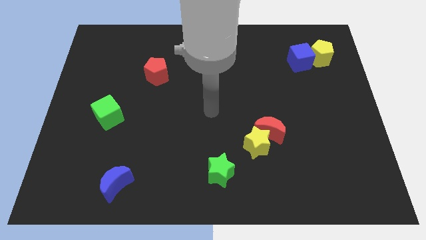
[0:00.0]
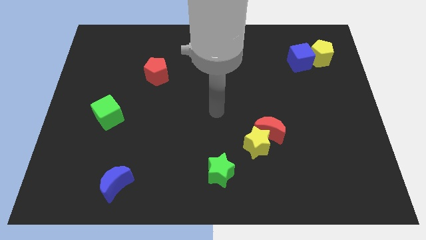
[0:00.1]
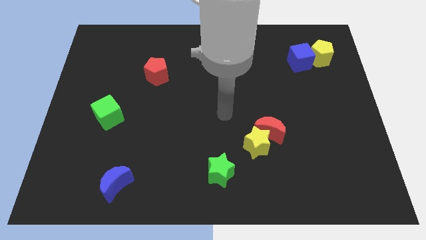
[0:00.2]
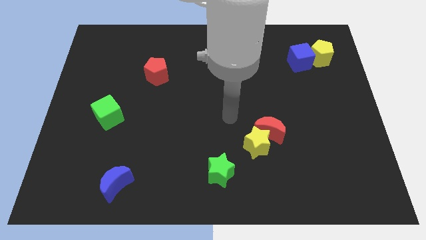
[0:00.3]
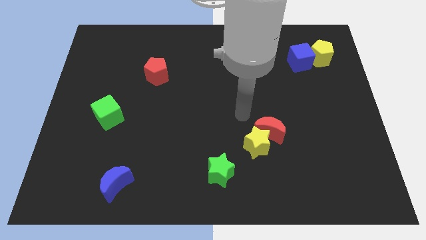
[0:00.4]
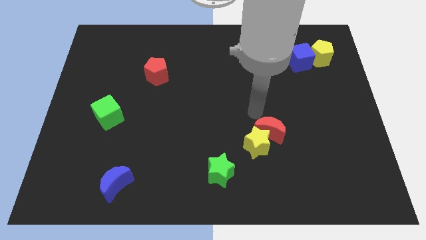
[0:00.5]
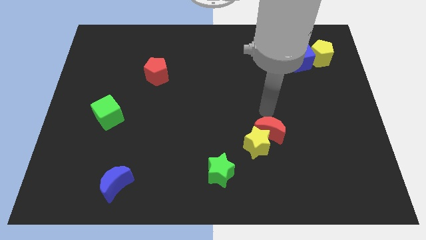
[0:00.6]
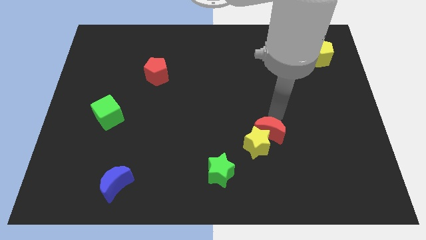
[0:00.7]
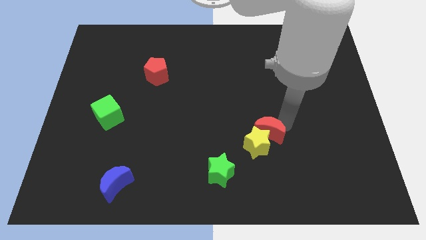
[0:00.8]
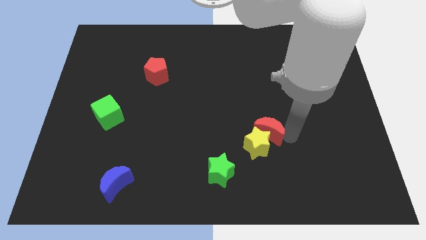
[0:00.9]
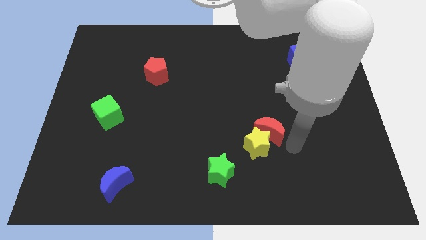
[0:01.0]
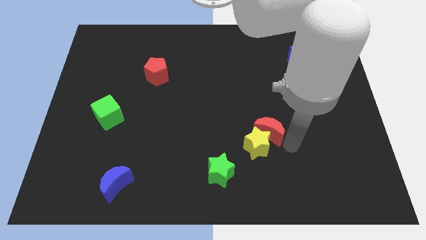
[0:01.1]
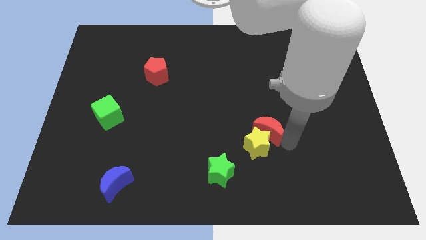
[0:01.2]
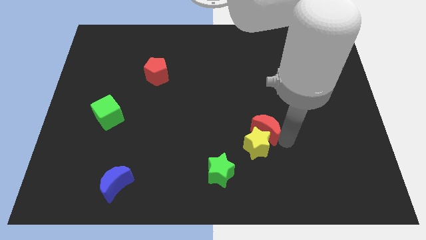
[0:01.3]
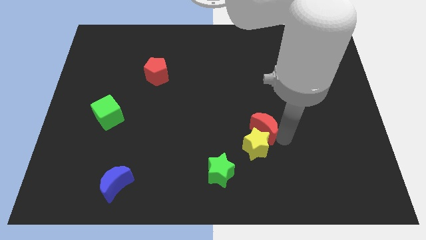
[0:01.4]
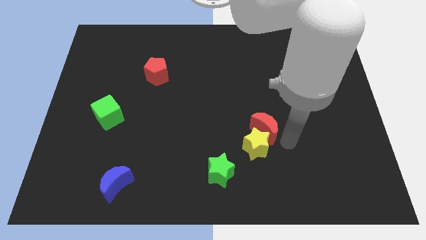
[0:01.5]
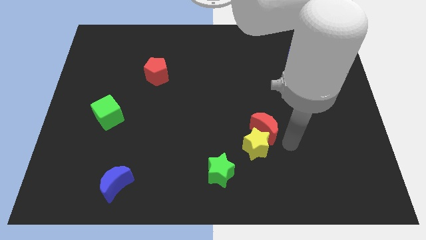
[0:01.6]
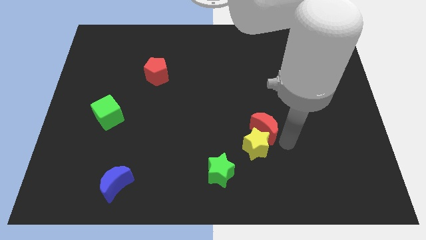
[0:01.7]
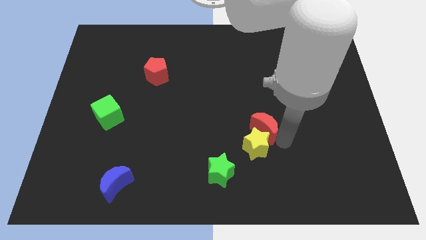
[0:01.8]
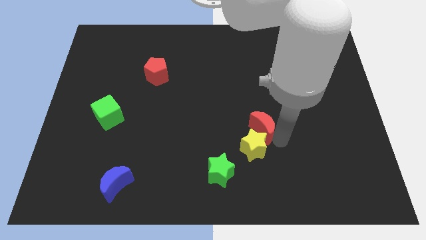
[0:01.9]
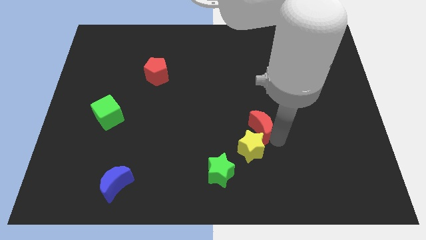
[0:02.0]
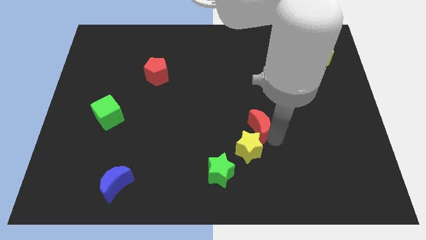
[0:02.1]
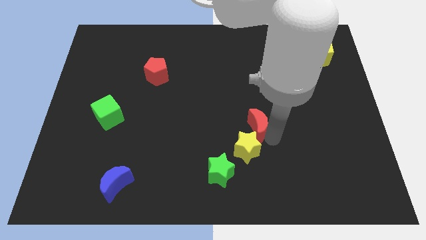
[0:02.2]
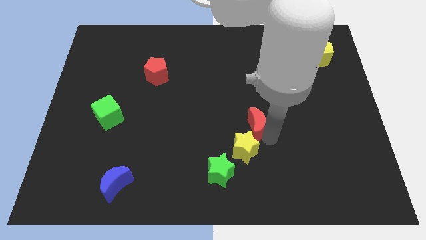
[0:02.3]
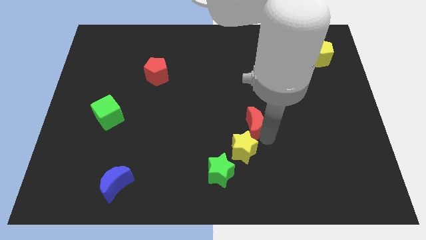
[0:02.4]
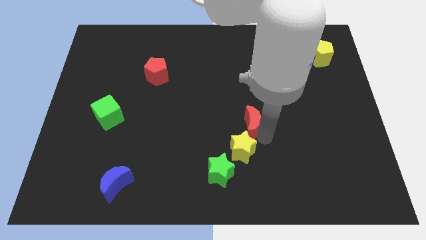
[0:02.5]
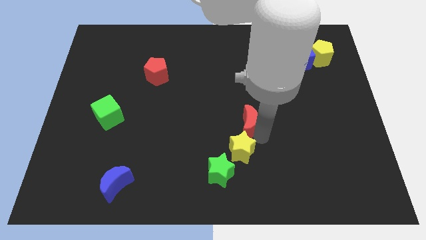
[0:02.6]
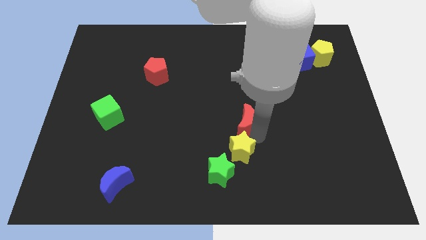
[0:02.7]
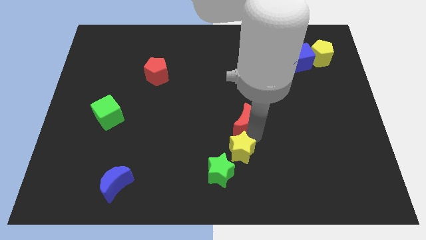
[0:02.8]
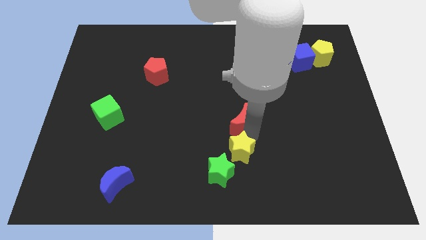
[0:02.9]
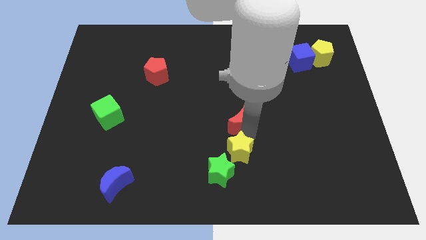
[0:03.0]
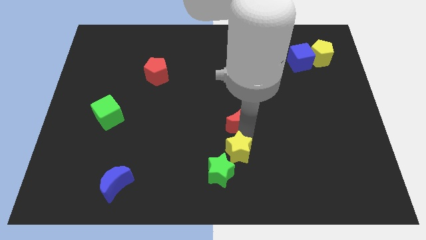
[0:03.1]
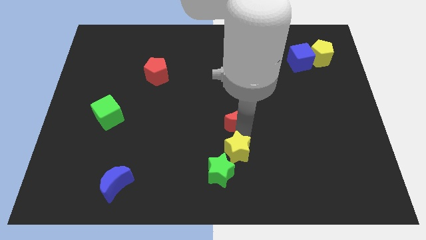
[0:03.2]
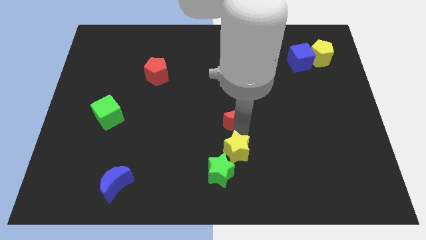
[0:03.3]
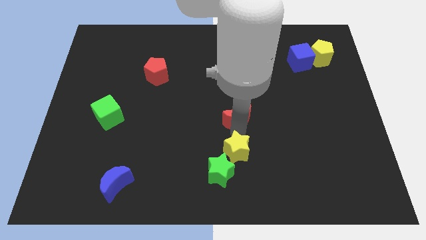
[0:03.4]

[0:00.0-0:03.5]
slide the red moon somewhat up and to the left diagonally

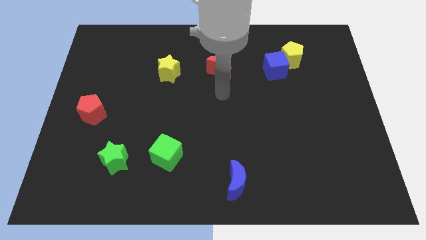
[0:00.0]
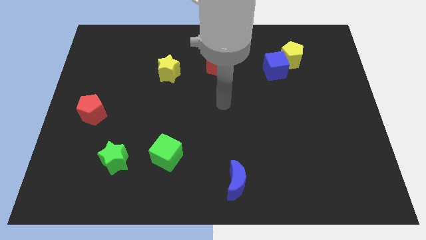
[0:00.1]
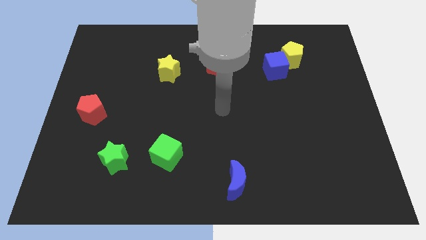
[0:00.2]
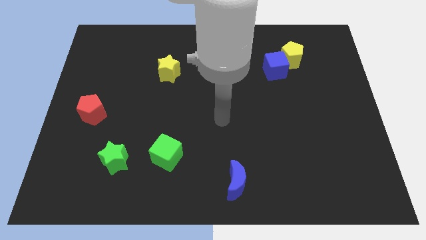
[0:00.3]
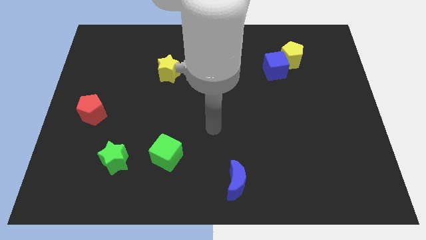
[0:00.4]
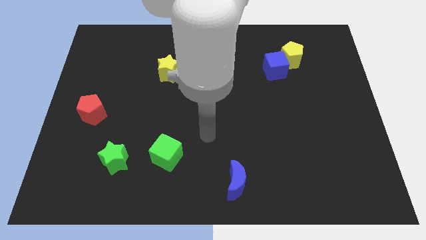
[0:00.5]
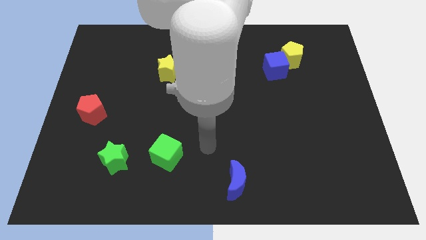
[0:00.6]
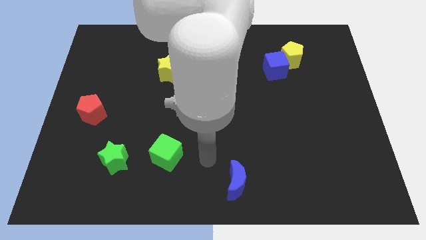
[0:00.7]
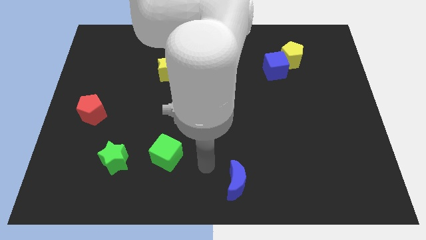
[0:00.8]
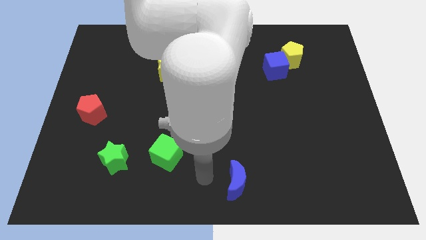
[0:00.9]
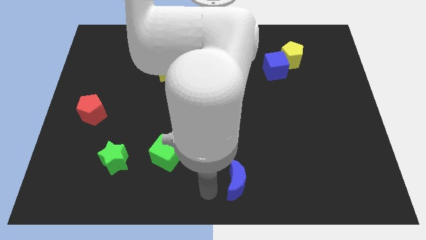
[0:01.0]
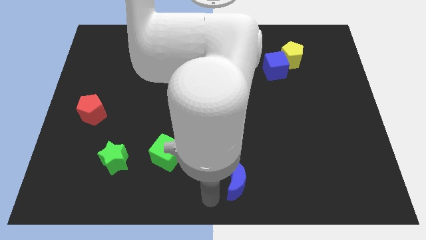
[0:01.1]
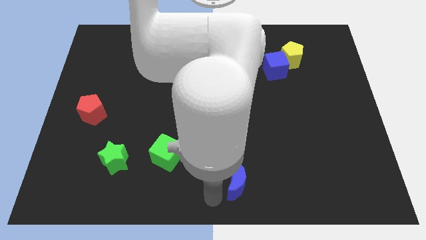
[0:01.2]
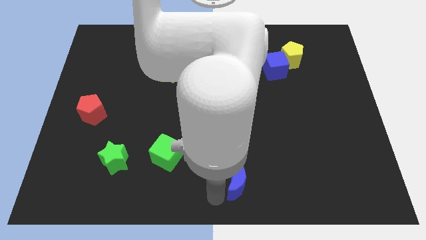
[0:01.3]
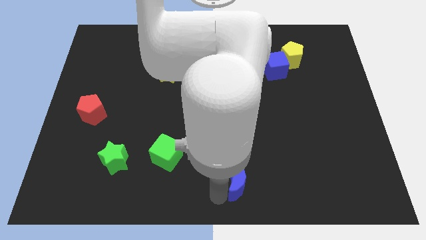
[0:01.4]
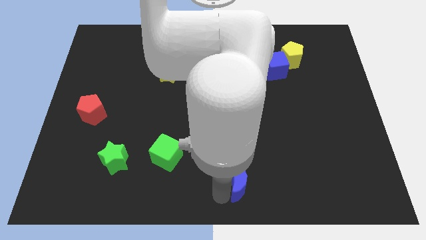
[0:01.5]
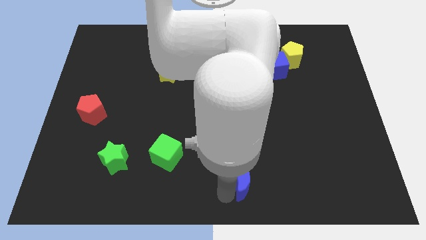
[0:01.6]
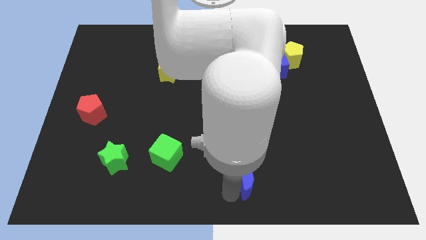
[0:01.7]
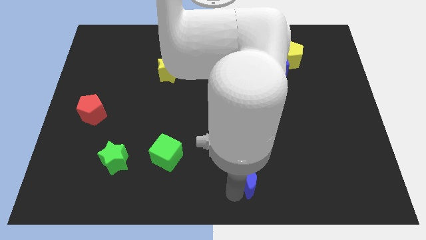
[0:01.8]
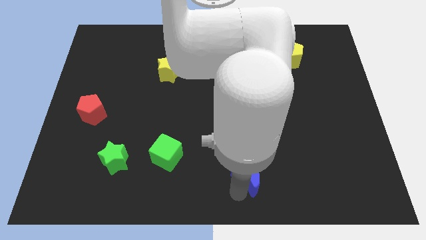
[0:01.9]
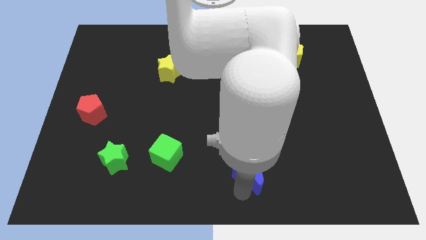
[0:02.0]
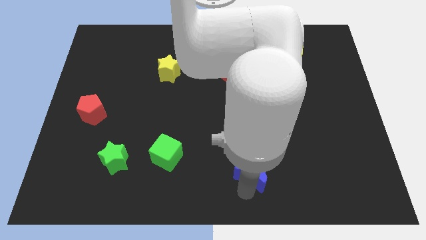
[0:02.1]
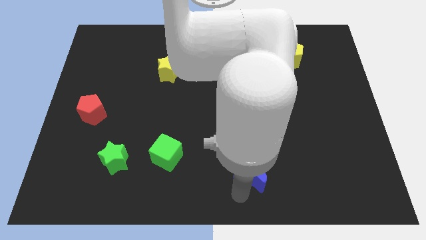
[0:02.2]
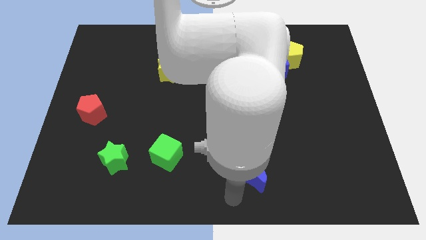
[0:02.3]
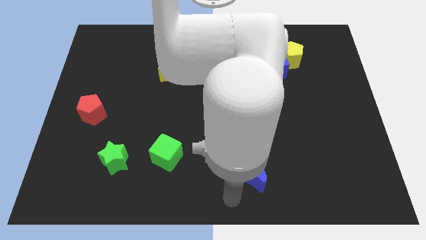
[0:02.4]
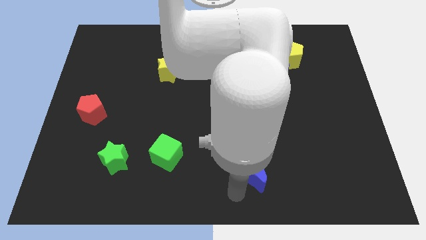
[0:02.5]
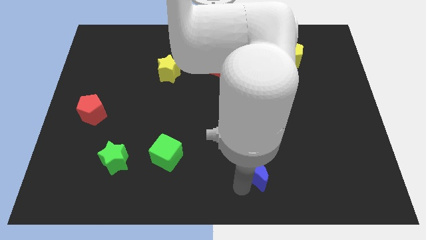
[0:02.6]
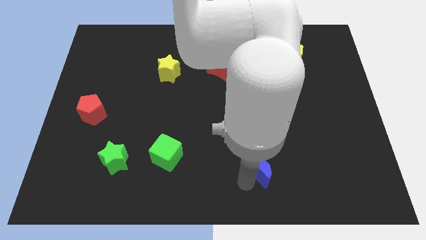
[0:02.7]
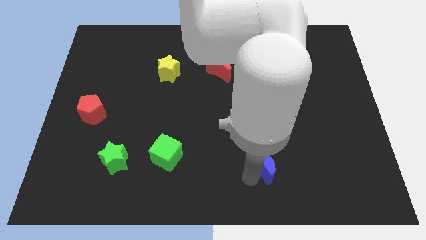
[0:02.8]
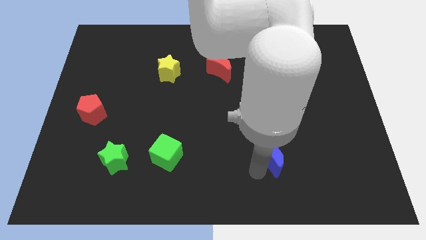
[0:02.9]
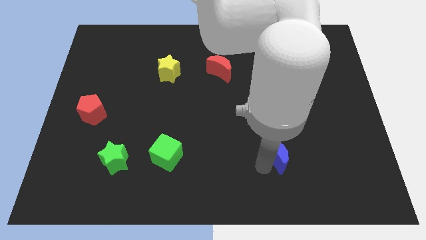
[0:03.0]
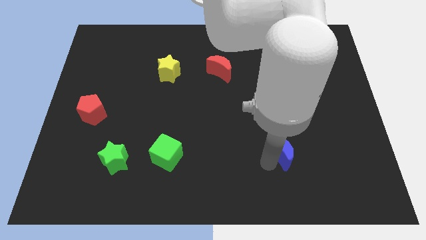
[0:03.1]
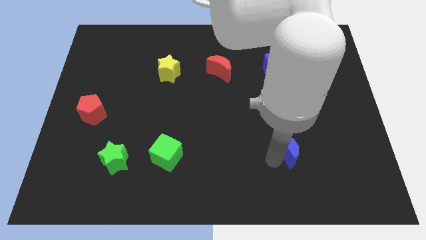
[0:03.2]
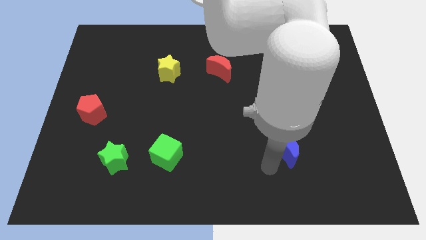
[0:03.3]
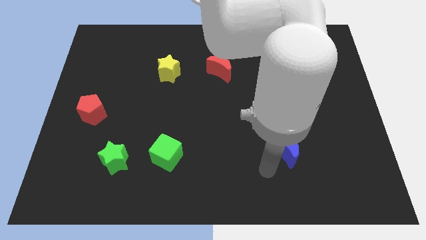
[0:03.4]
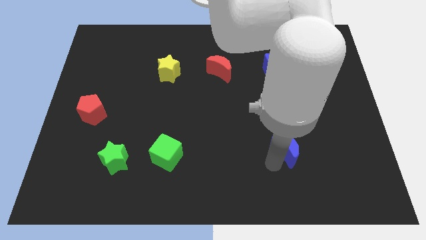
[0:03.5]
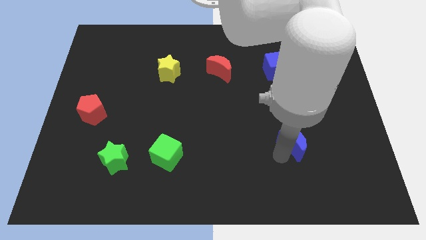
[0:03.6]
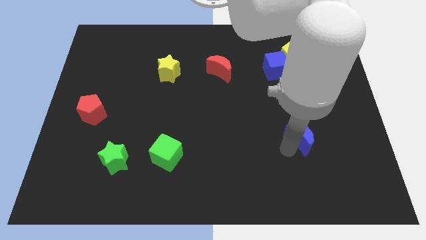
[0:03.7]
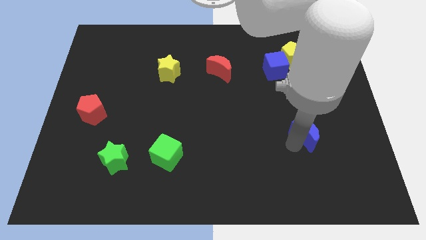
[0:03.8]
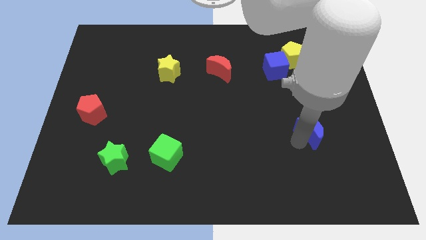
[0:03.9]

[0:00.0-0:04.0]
slide the blue moon up and then to the right

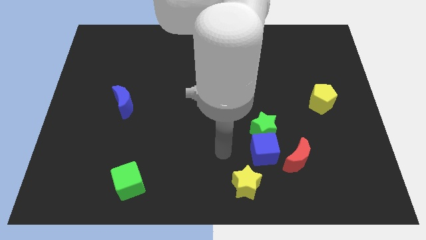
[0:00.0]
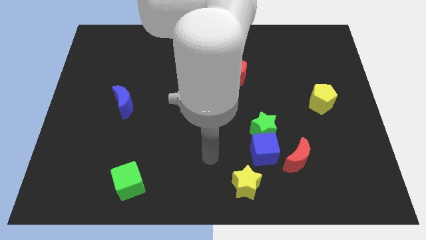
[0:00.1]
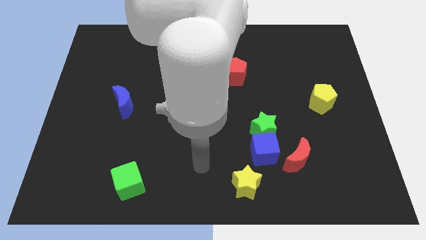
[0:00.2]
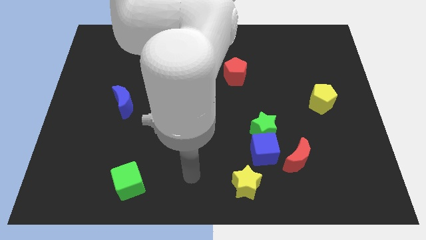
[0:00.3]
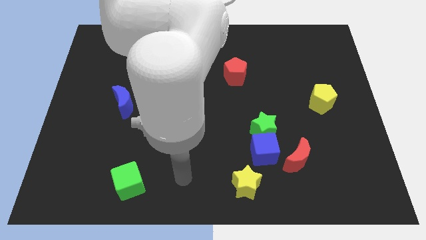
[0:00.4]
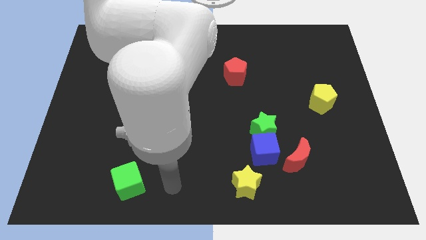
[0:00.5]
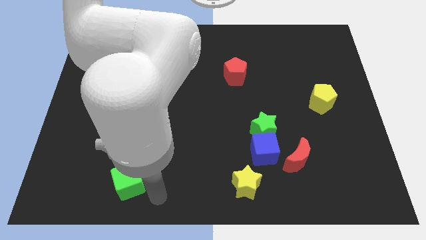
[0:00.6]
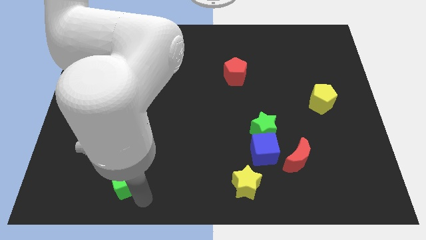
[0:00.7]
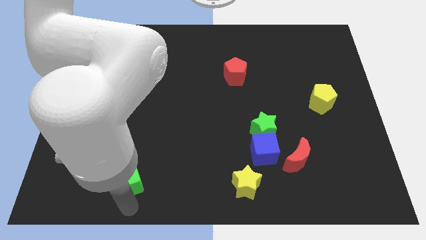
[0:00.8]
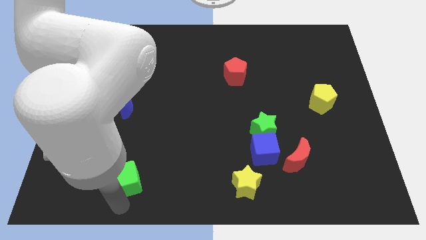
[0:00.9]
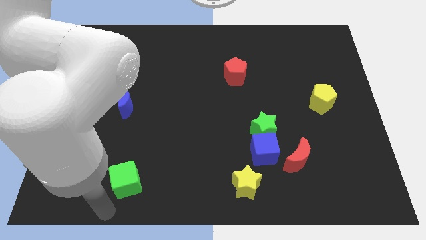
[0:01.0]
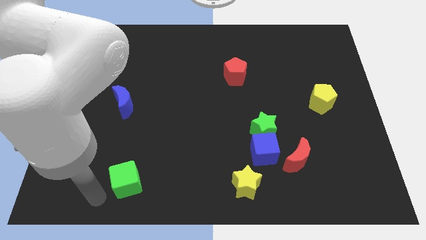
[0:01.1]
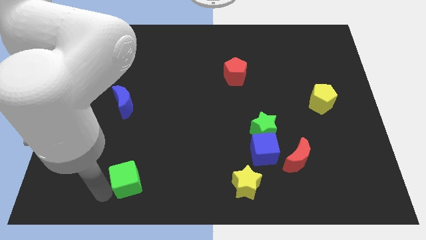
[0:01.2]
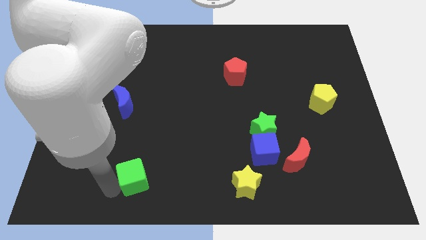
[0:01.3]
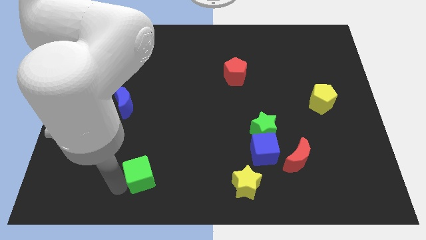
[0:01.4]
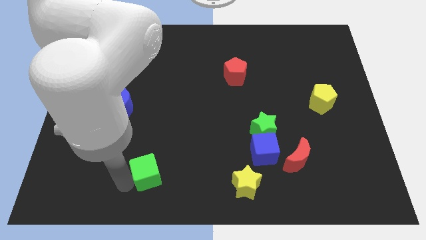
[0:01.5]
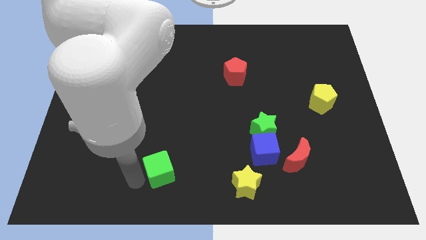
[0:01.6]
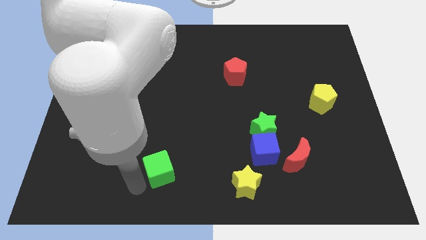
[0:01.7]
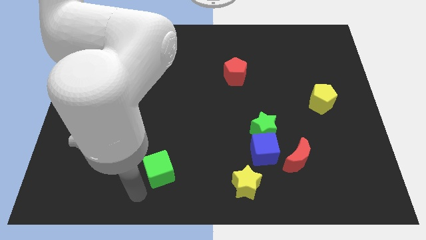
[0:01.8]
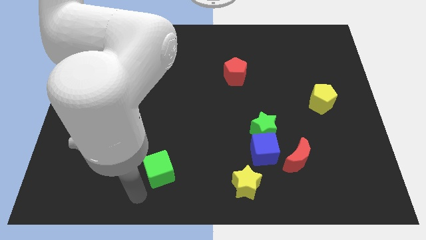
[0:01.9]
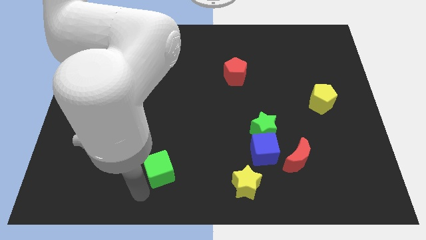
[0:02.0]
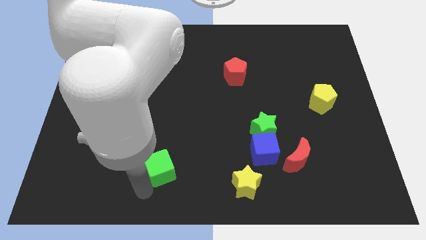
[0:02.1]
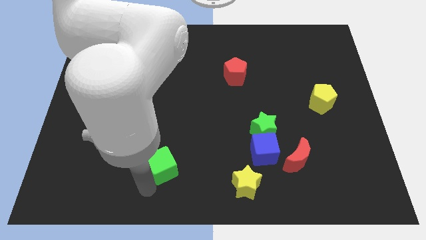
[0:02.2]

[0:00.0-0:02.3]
move the green cube upwards and to the right somewhat
